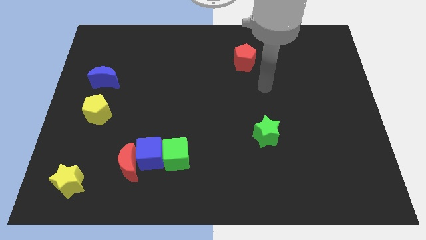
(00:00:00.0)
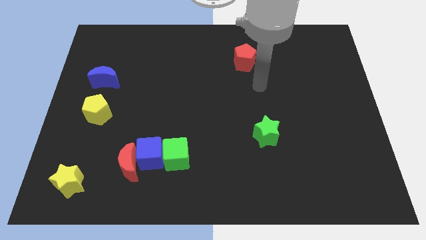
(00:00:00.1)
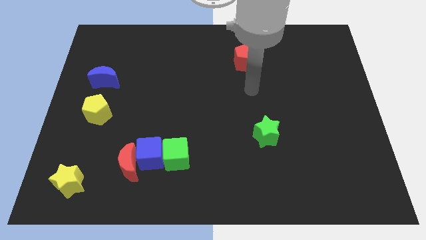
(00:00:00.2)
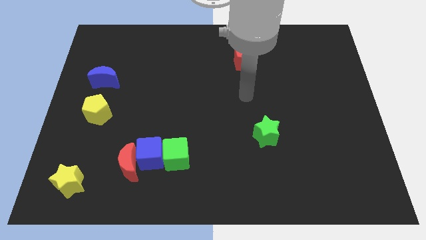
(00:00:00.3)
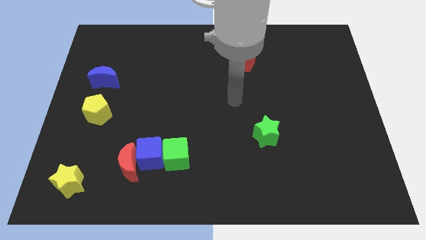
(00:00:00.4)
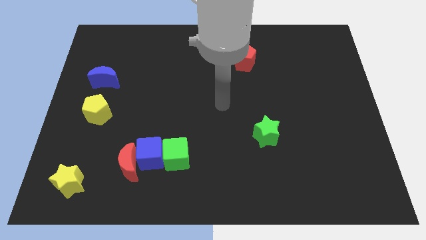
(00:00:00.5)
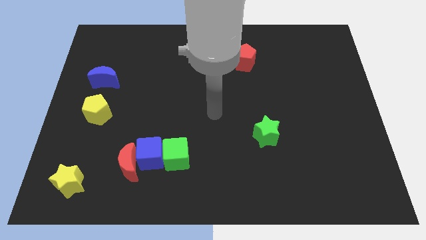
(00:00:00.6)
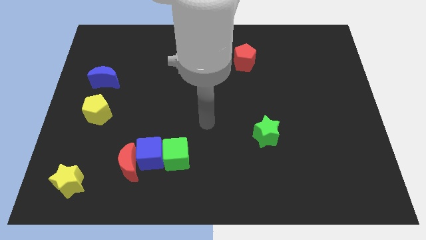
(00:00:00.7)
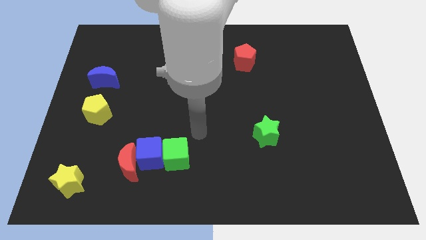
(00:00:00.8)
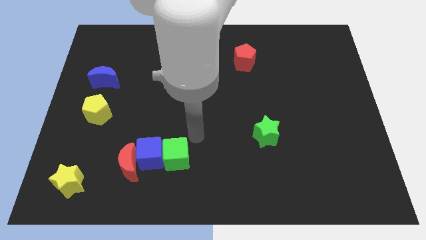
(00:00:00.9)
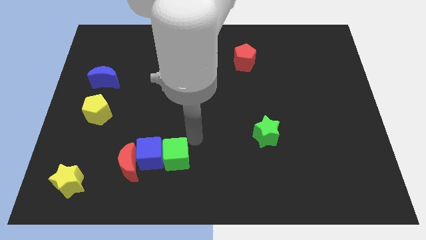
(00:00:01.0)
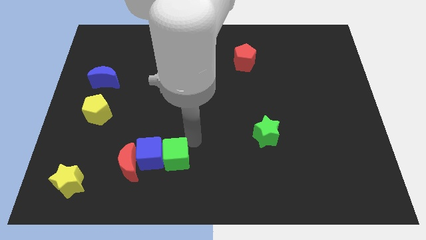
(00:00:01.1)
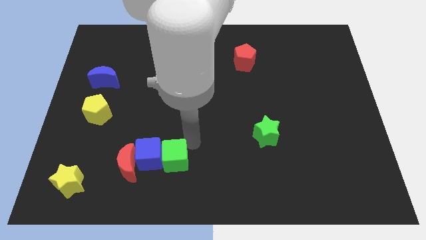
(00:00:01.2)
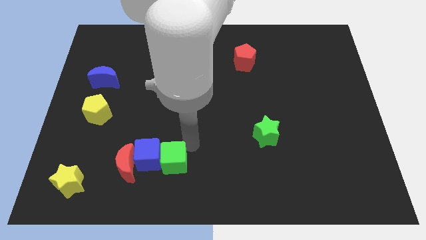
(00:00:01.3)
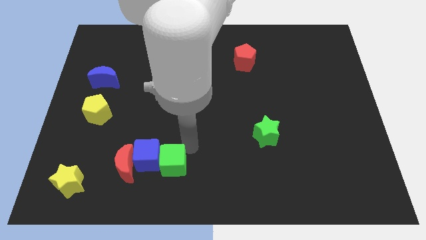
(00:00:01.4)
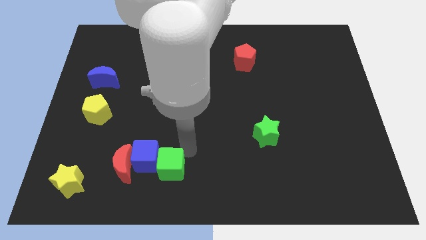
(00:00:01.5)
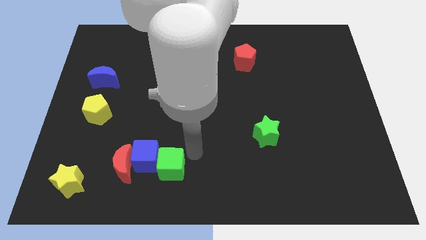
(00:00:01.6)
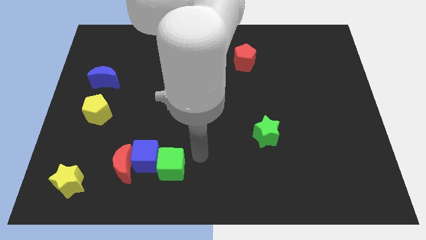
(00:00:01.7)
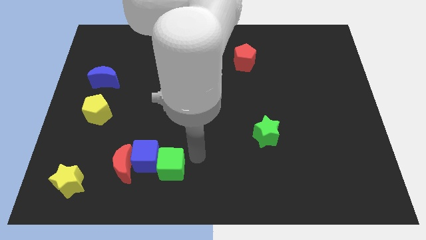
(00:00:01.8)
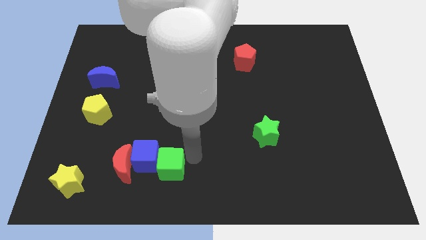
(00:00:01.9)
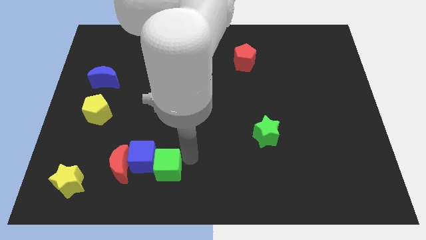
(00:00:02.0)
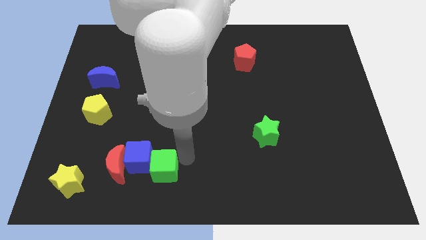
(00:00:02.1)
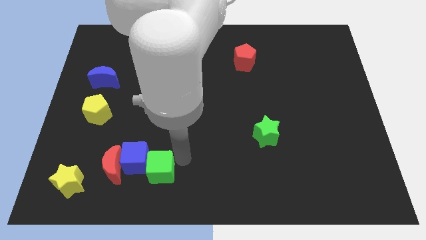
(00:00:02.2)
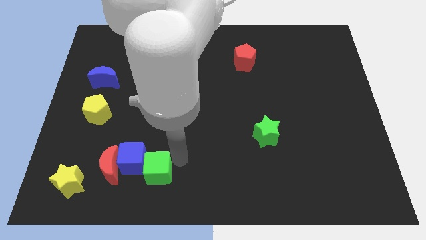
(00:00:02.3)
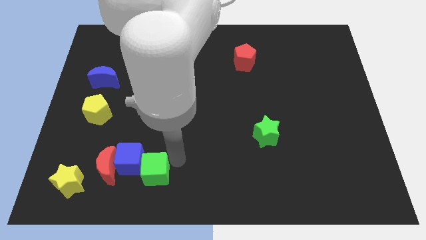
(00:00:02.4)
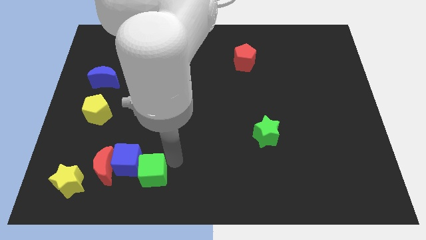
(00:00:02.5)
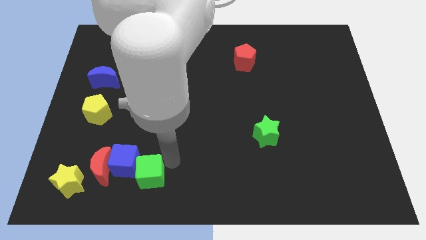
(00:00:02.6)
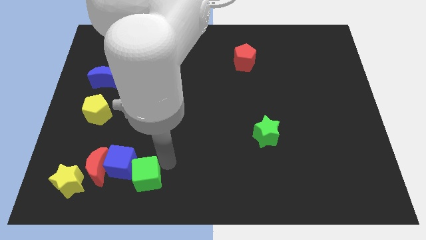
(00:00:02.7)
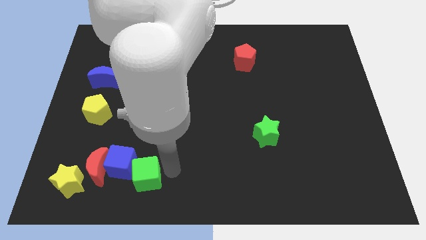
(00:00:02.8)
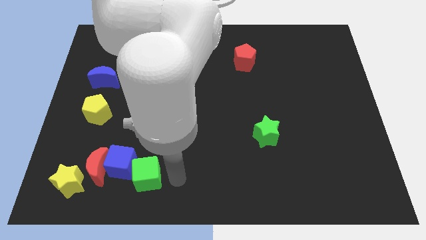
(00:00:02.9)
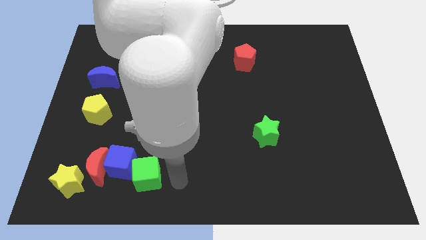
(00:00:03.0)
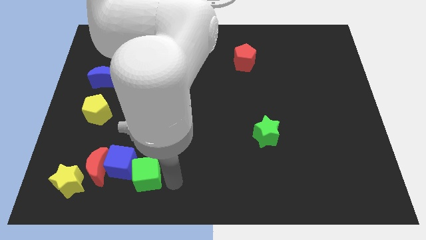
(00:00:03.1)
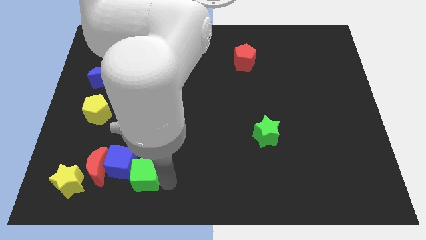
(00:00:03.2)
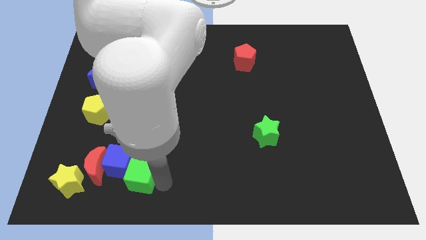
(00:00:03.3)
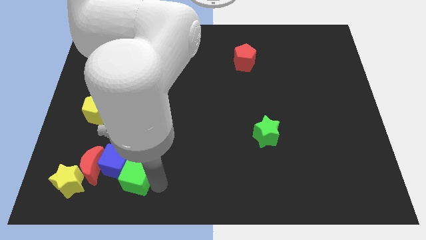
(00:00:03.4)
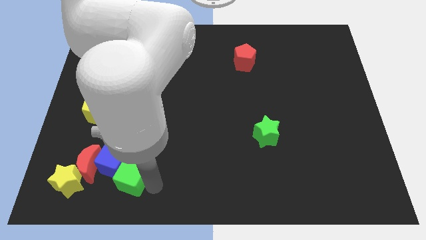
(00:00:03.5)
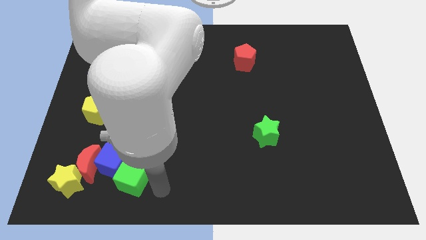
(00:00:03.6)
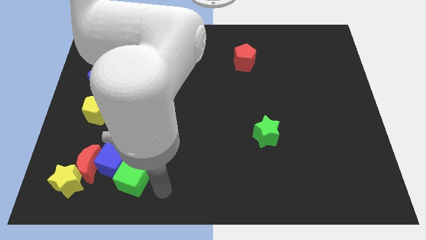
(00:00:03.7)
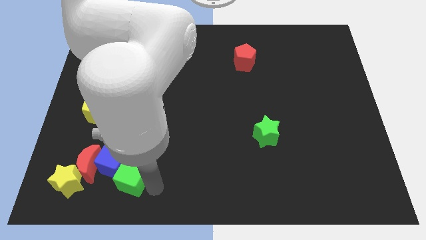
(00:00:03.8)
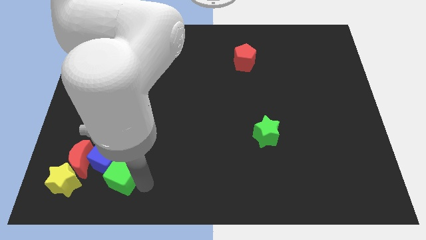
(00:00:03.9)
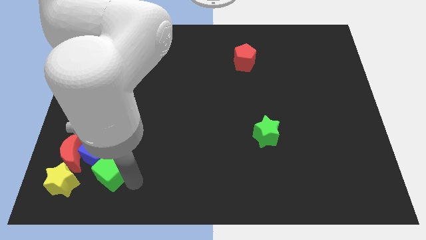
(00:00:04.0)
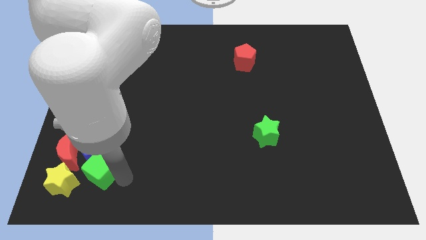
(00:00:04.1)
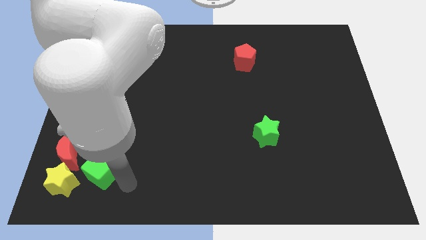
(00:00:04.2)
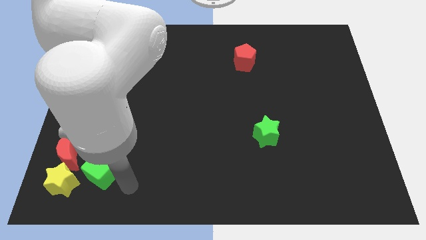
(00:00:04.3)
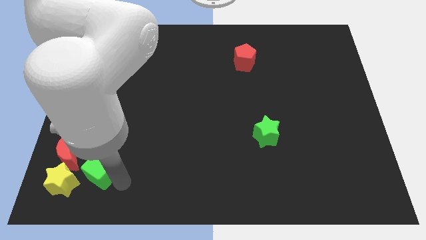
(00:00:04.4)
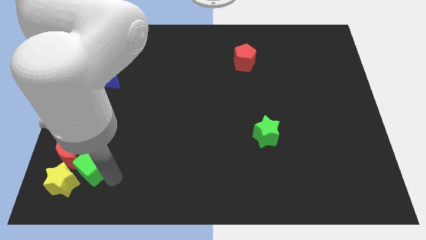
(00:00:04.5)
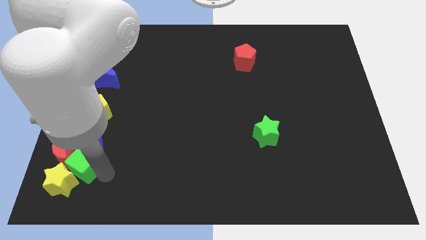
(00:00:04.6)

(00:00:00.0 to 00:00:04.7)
push the green cube towards the red moon

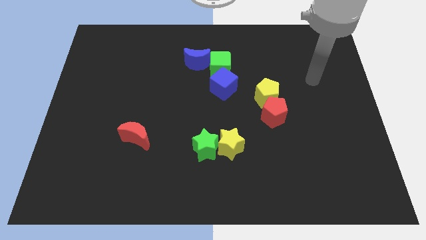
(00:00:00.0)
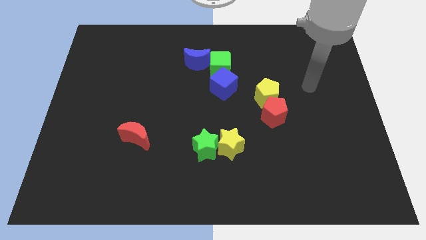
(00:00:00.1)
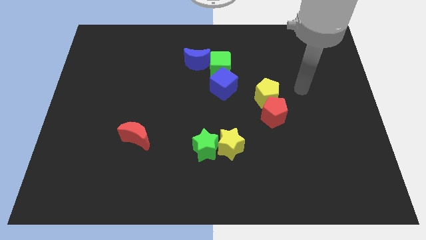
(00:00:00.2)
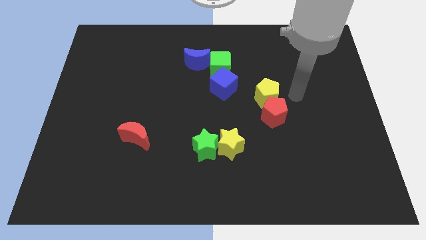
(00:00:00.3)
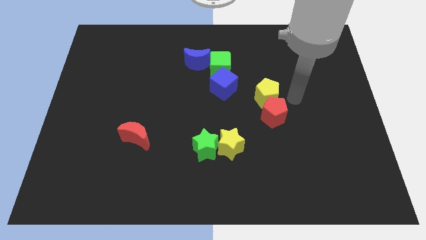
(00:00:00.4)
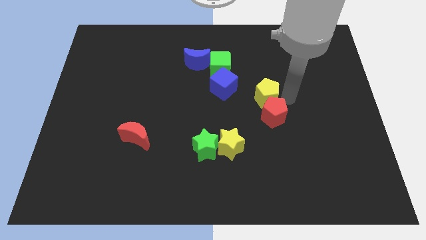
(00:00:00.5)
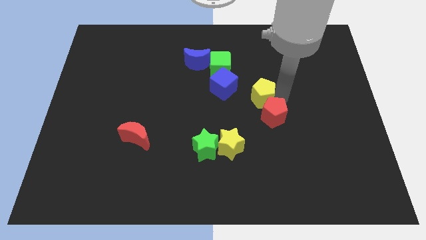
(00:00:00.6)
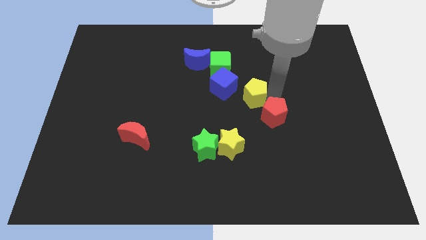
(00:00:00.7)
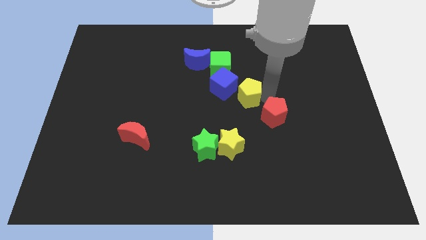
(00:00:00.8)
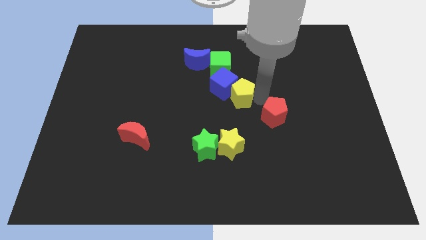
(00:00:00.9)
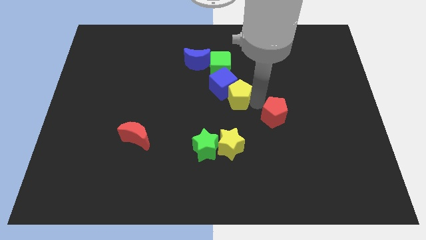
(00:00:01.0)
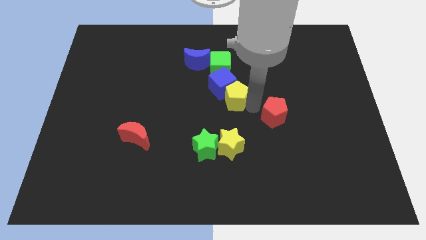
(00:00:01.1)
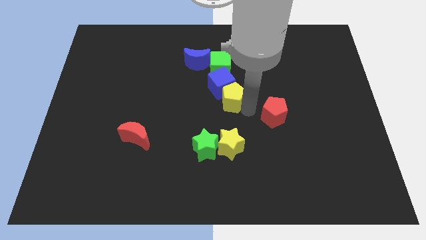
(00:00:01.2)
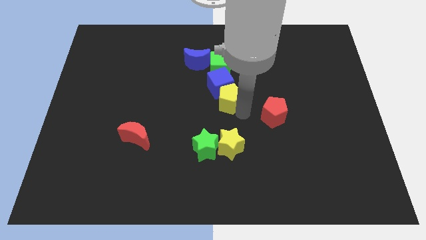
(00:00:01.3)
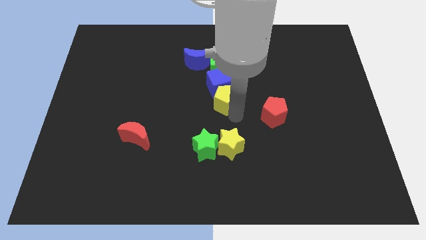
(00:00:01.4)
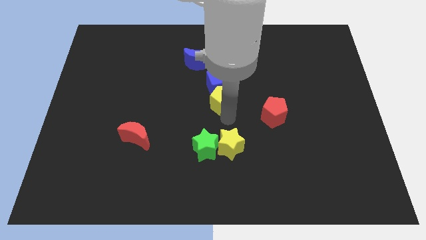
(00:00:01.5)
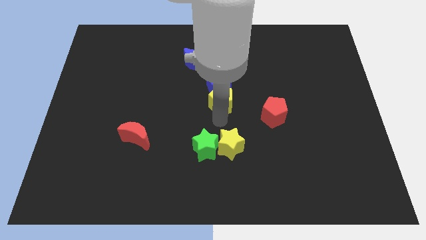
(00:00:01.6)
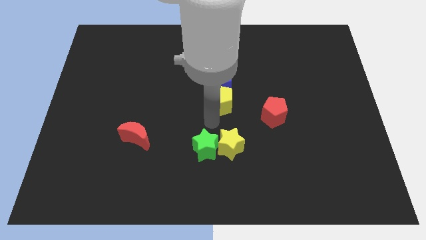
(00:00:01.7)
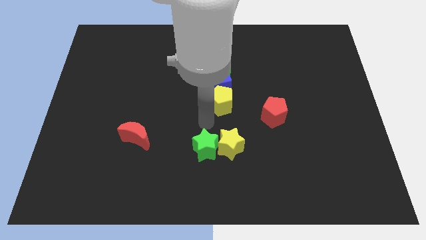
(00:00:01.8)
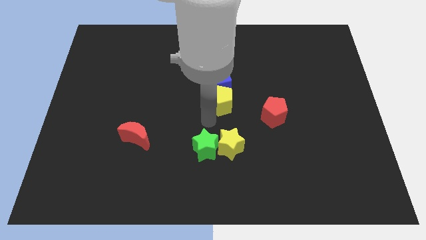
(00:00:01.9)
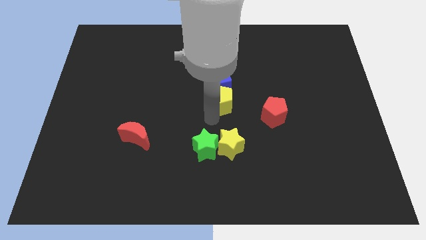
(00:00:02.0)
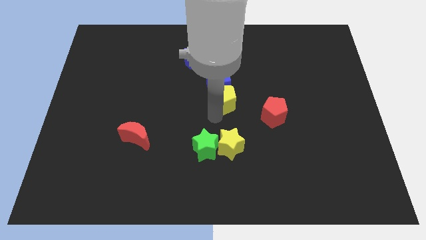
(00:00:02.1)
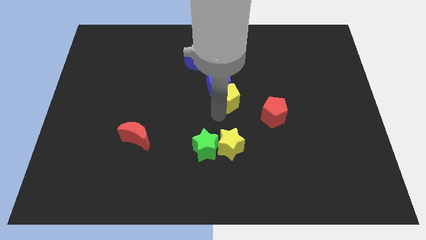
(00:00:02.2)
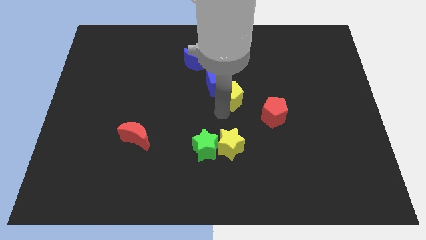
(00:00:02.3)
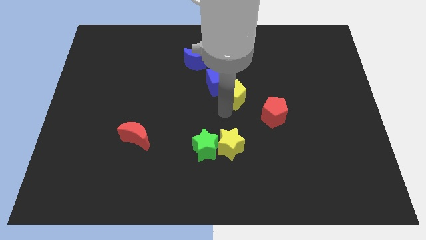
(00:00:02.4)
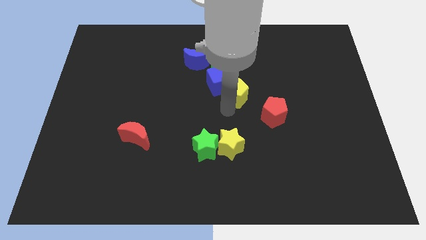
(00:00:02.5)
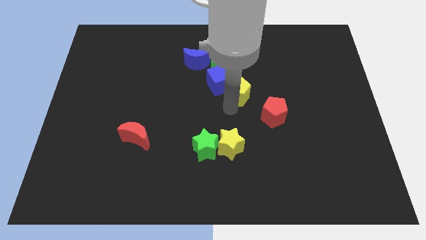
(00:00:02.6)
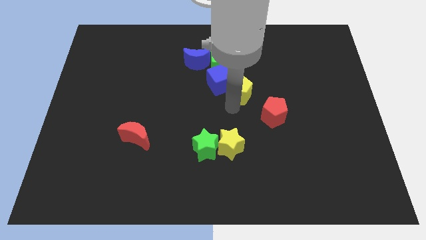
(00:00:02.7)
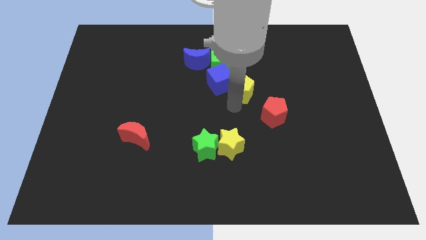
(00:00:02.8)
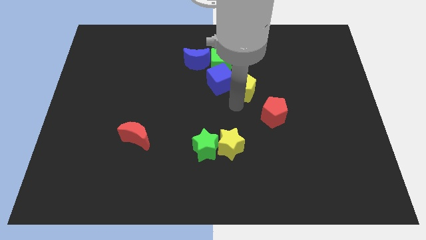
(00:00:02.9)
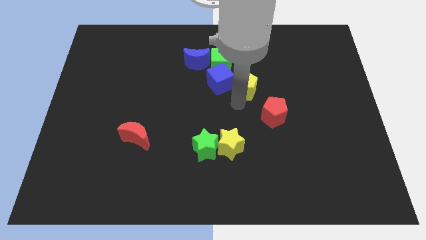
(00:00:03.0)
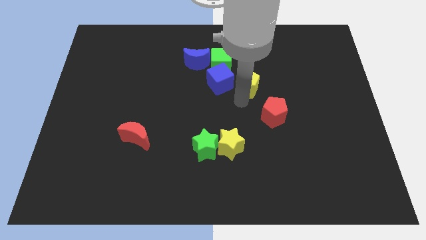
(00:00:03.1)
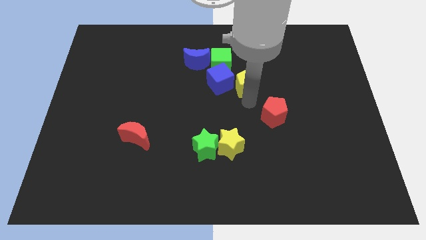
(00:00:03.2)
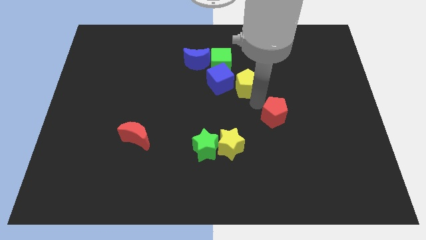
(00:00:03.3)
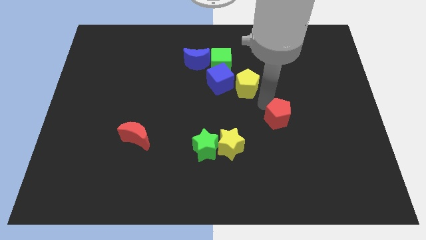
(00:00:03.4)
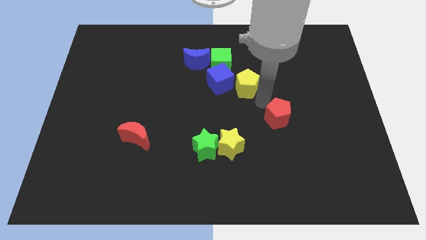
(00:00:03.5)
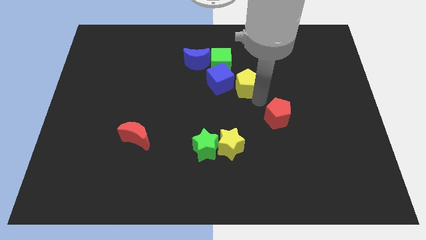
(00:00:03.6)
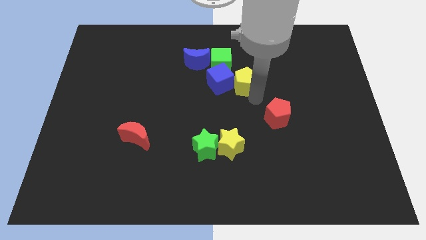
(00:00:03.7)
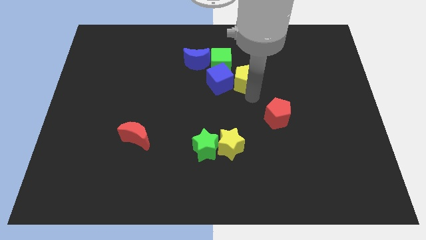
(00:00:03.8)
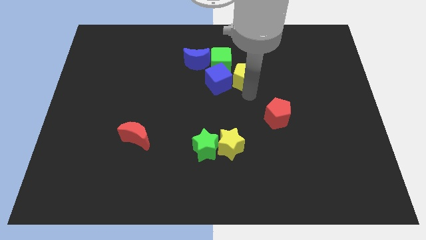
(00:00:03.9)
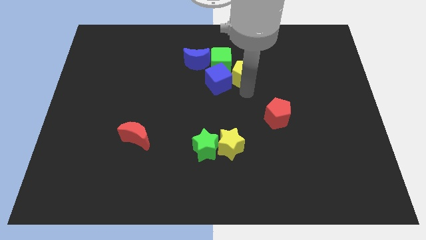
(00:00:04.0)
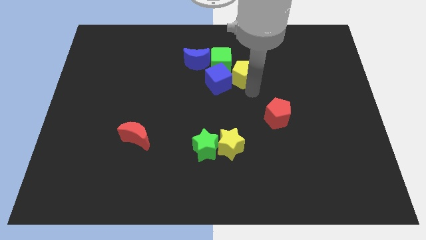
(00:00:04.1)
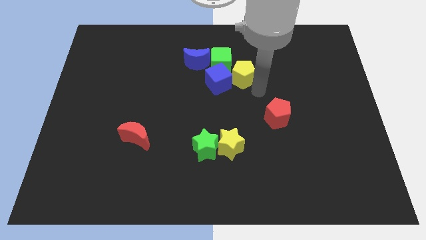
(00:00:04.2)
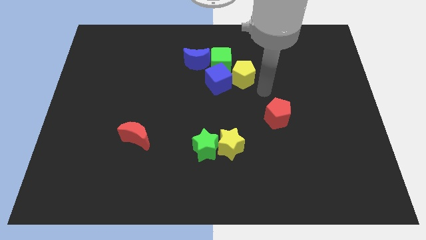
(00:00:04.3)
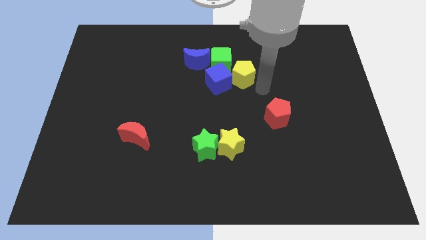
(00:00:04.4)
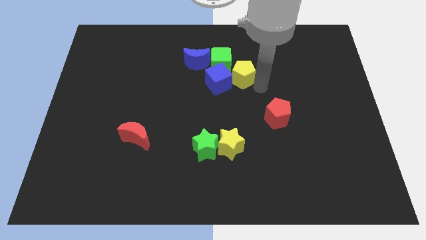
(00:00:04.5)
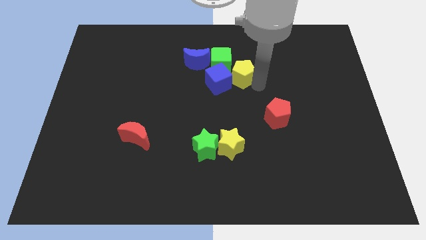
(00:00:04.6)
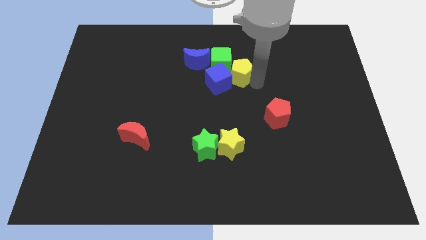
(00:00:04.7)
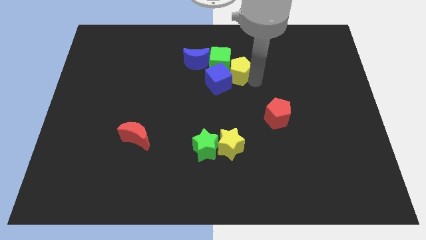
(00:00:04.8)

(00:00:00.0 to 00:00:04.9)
move the yellow pentagon close to the green cube
